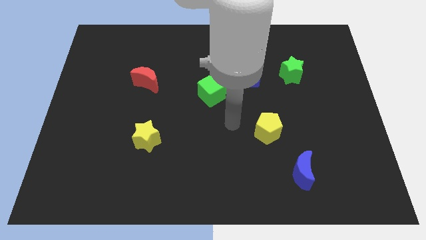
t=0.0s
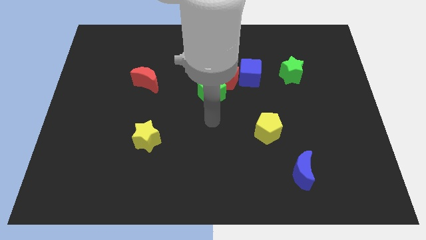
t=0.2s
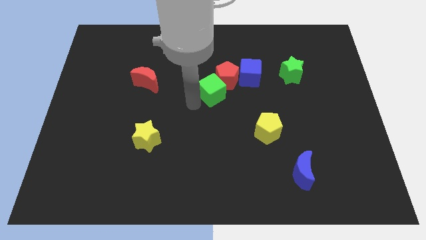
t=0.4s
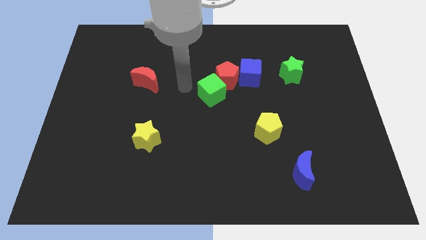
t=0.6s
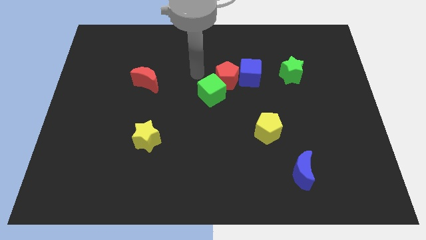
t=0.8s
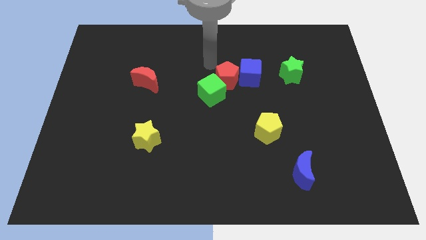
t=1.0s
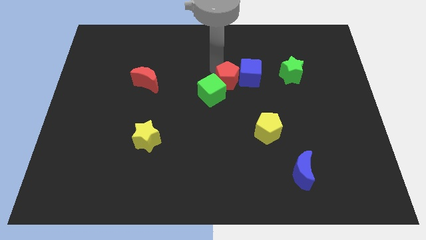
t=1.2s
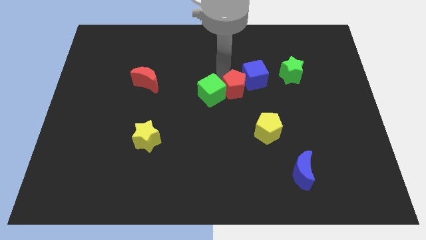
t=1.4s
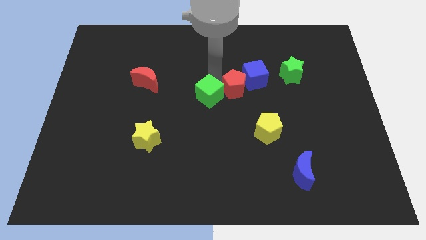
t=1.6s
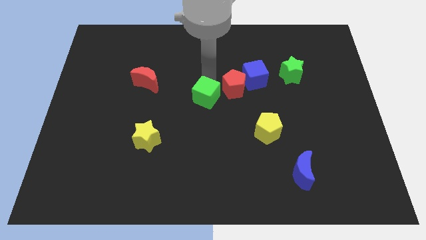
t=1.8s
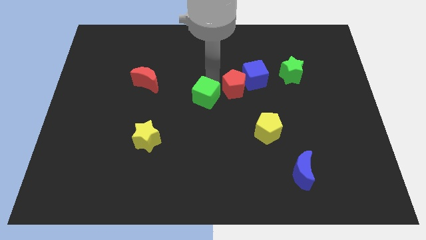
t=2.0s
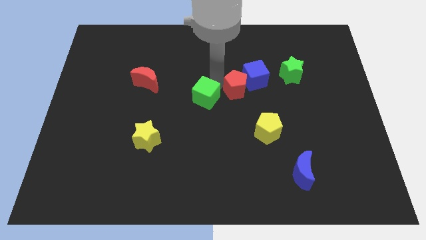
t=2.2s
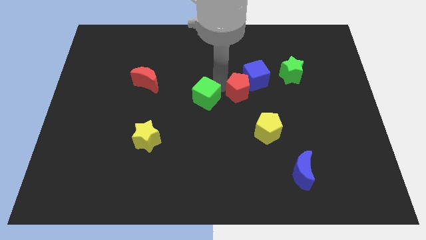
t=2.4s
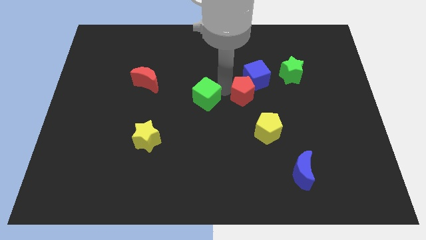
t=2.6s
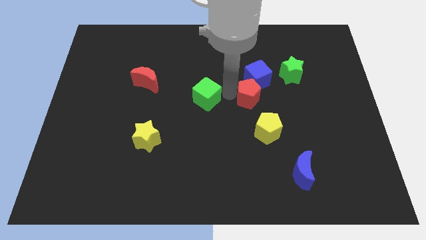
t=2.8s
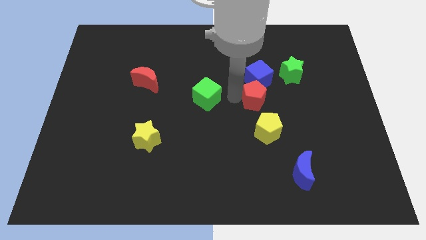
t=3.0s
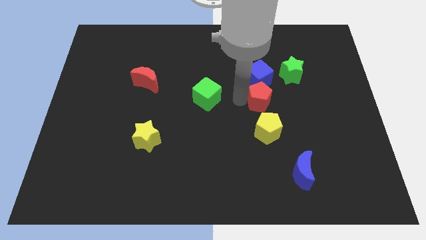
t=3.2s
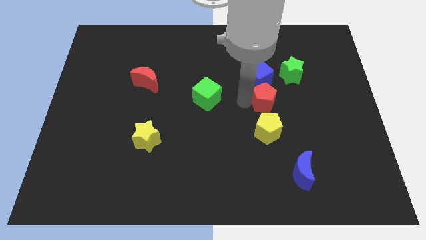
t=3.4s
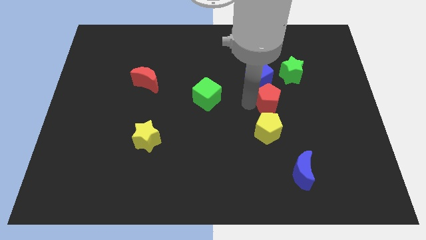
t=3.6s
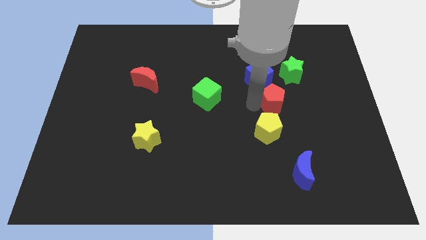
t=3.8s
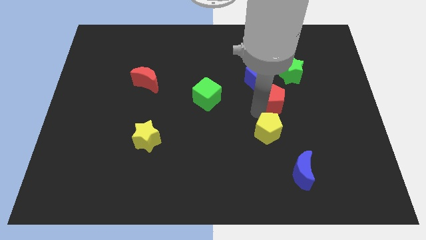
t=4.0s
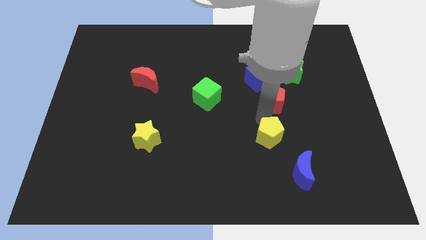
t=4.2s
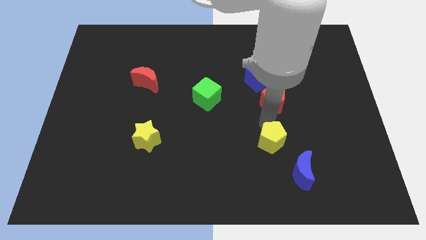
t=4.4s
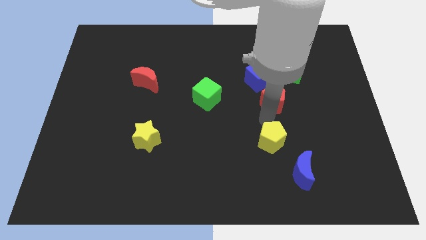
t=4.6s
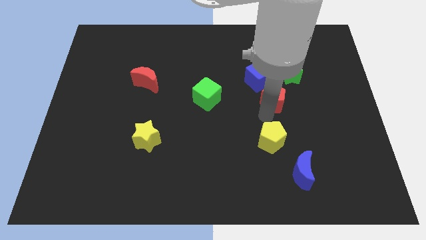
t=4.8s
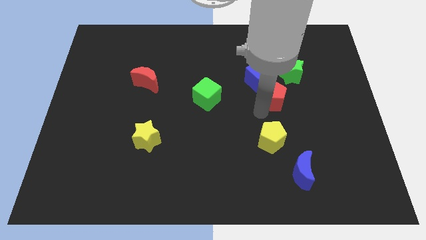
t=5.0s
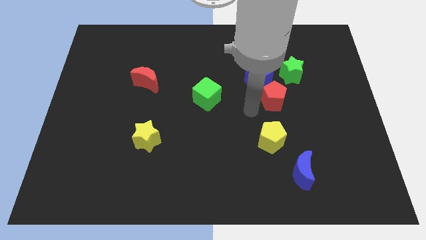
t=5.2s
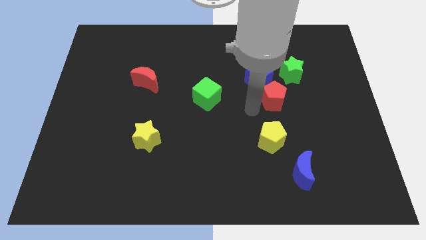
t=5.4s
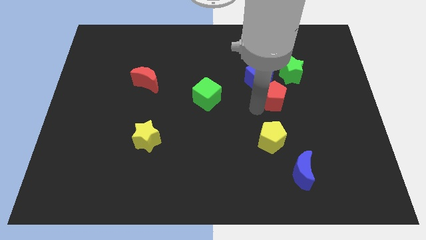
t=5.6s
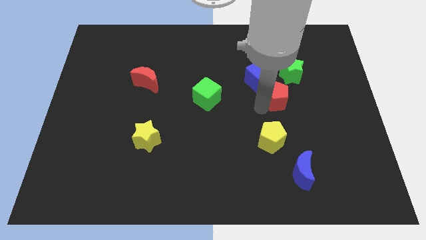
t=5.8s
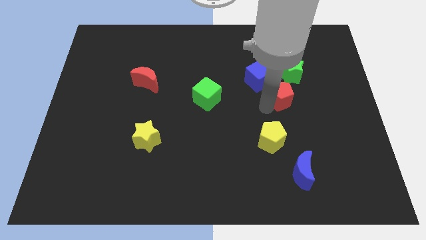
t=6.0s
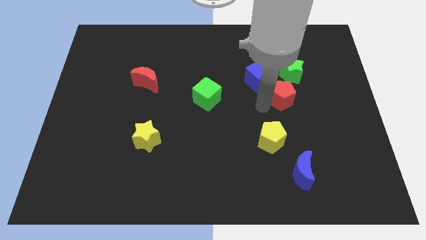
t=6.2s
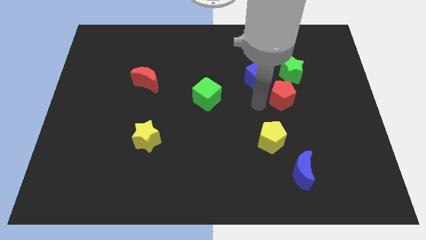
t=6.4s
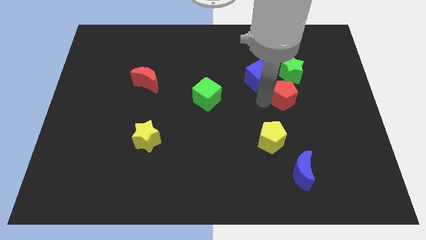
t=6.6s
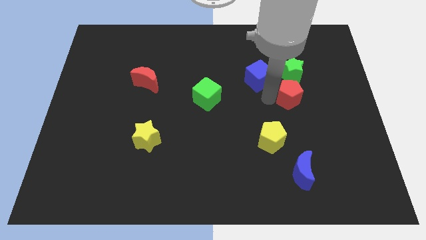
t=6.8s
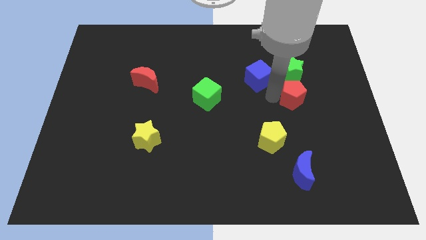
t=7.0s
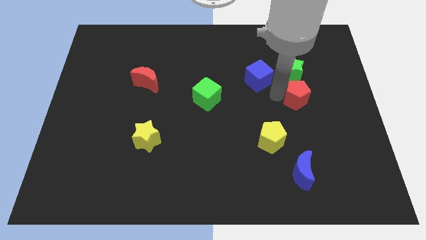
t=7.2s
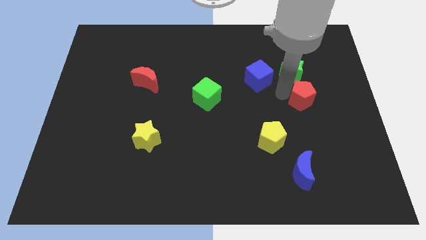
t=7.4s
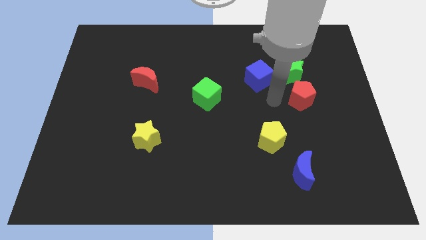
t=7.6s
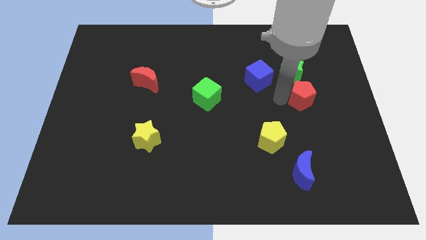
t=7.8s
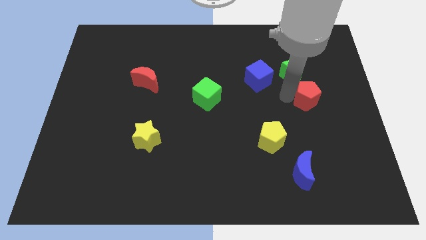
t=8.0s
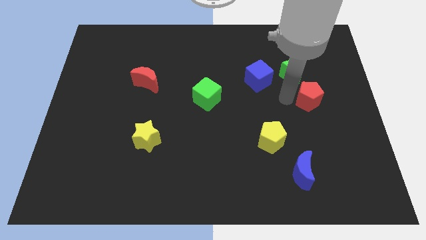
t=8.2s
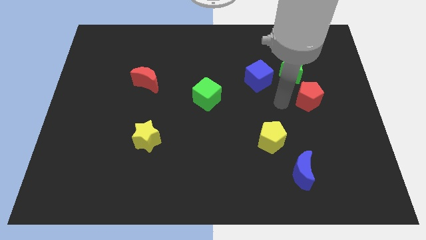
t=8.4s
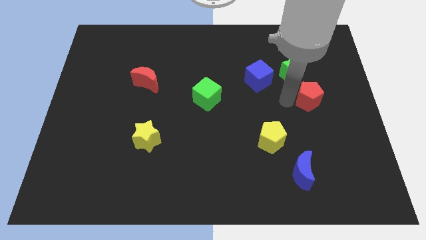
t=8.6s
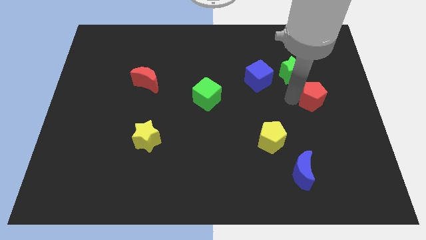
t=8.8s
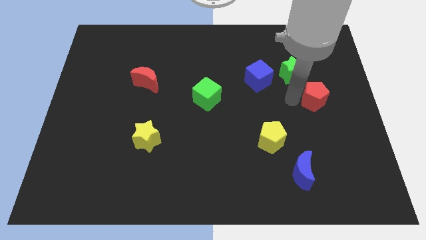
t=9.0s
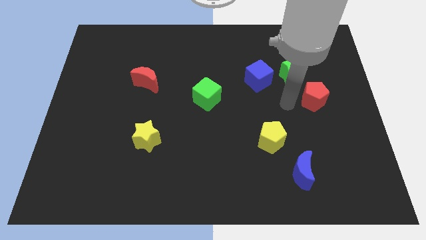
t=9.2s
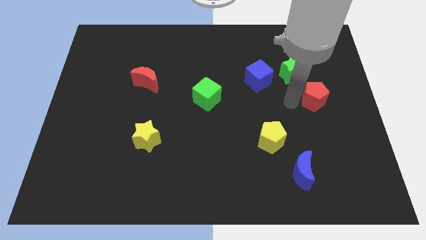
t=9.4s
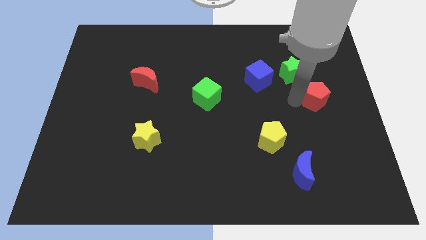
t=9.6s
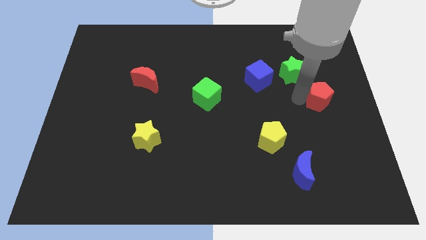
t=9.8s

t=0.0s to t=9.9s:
put the red pentagon to the right side of the board
